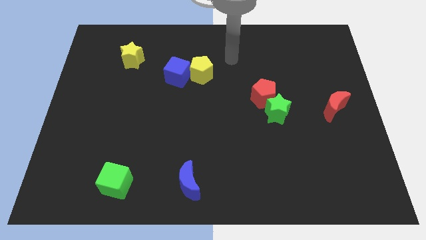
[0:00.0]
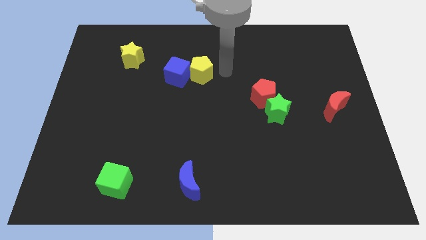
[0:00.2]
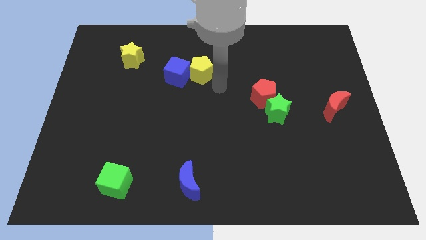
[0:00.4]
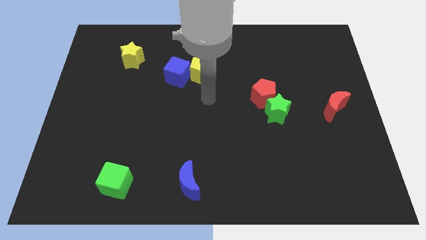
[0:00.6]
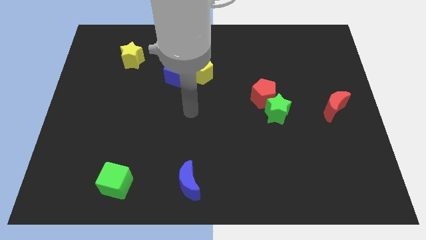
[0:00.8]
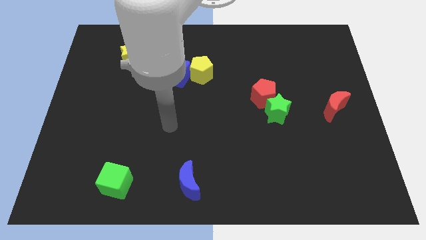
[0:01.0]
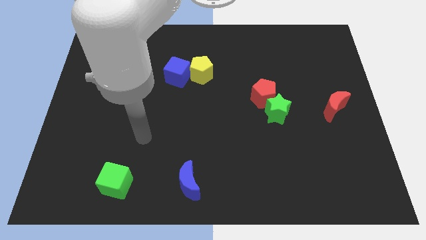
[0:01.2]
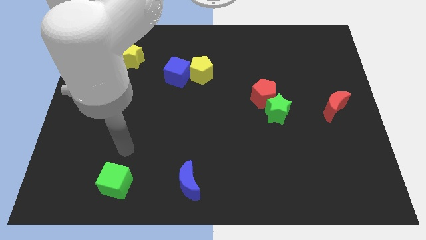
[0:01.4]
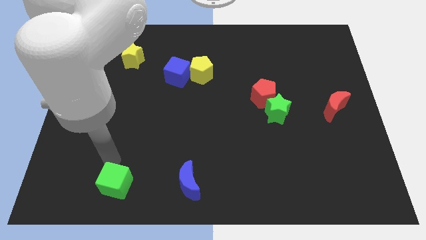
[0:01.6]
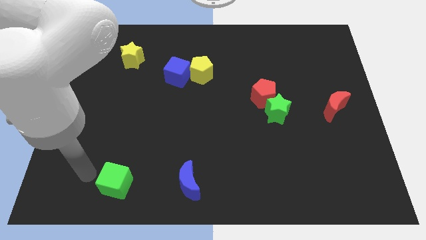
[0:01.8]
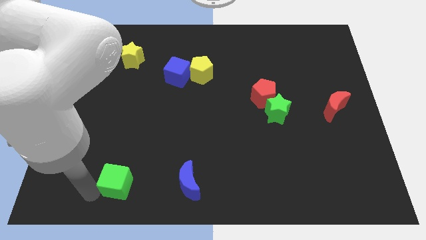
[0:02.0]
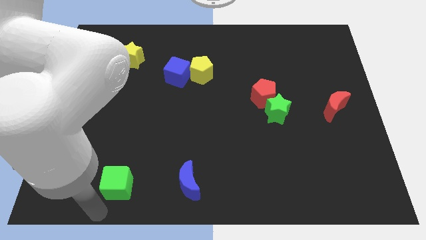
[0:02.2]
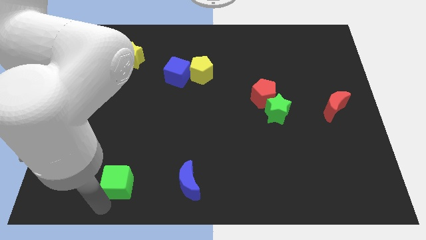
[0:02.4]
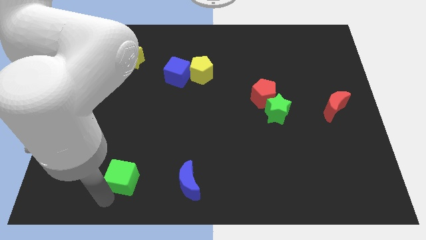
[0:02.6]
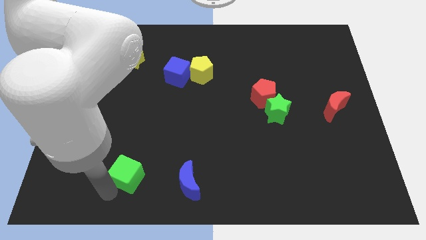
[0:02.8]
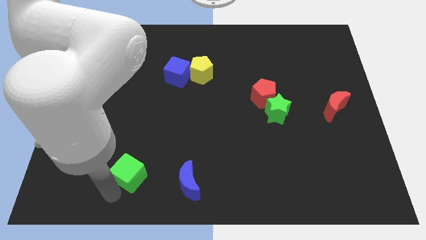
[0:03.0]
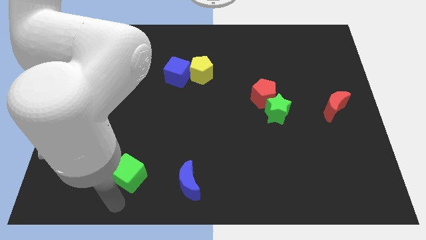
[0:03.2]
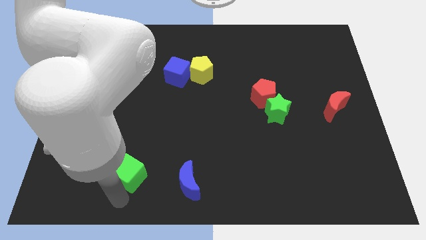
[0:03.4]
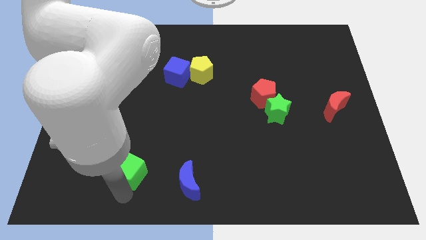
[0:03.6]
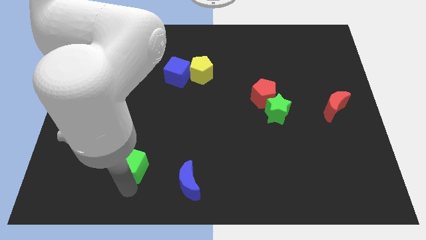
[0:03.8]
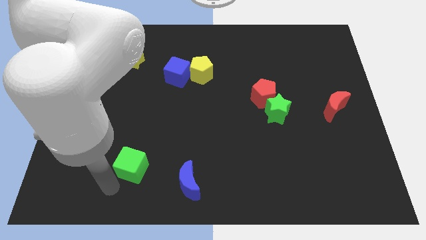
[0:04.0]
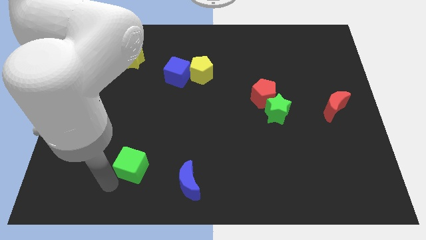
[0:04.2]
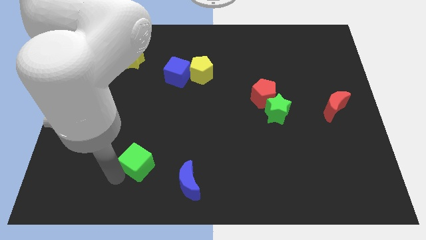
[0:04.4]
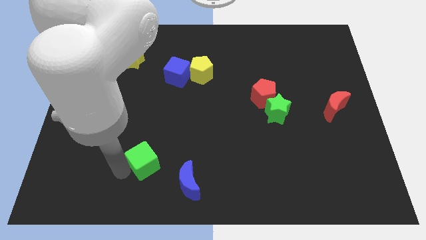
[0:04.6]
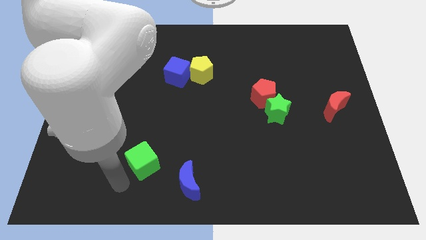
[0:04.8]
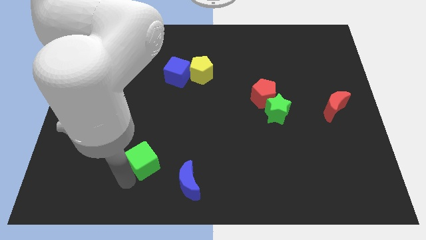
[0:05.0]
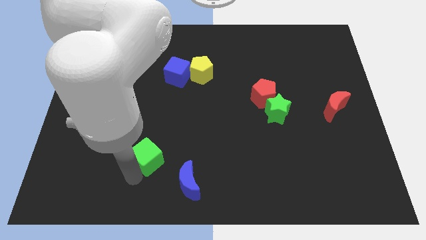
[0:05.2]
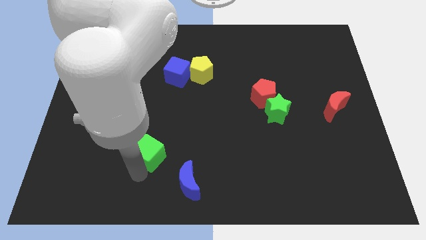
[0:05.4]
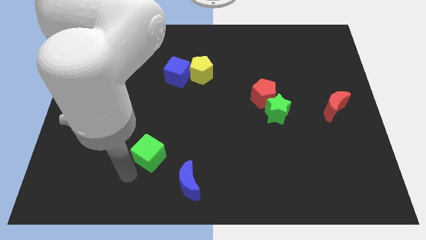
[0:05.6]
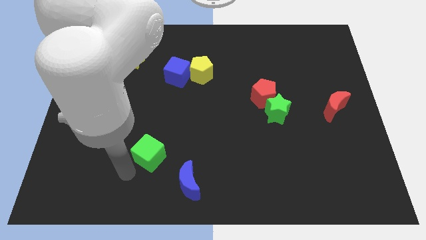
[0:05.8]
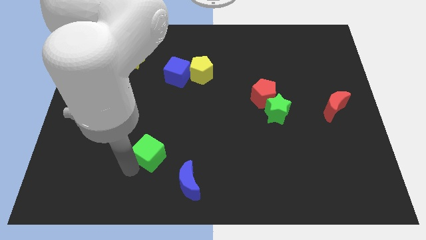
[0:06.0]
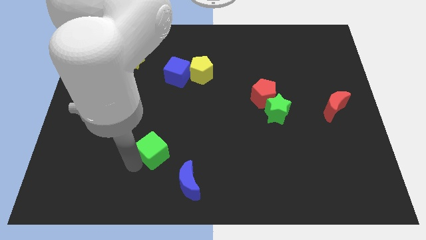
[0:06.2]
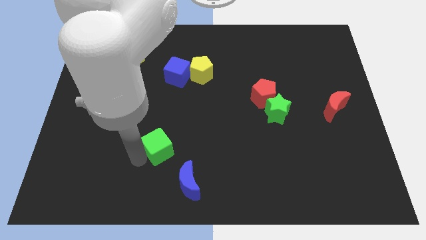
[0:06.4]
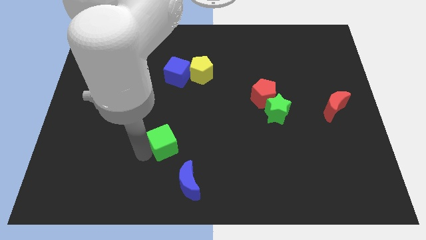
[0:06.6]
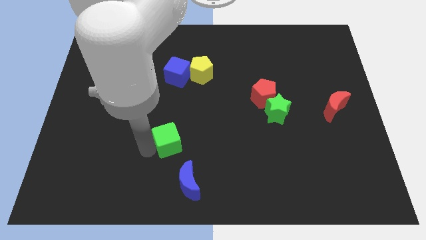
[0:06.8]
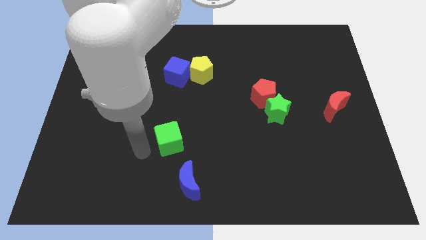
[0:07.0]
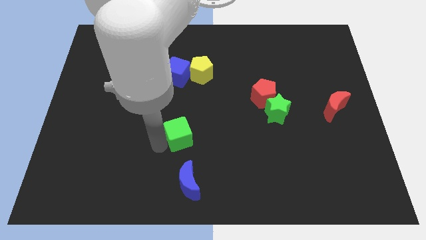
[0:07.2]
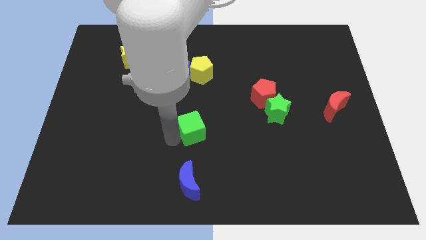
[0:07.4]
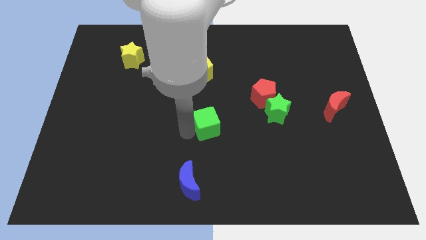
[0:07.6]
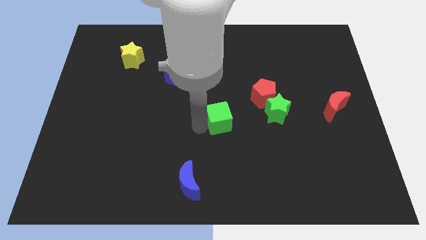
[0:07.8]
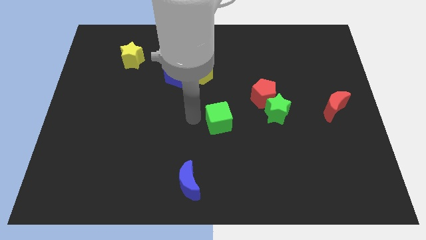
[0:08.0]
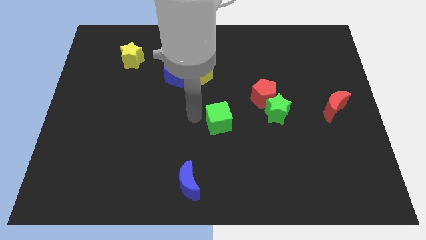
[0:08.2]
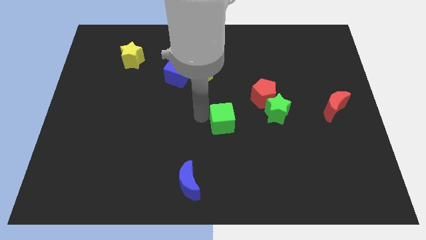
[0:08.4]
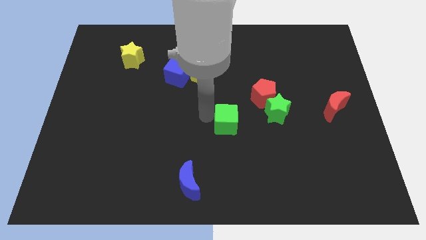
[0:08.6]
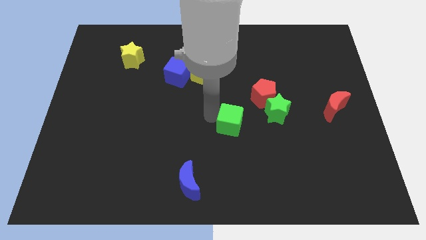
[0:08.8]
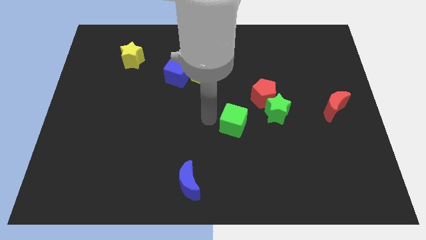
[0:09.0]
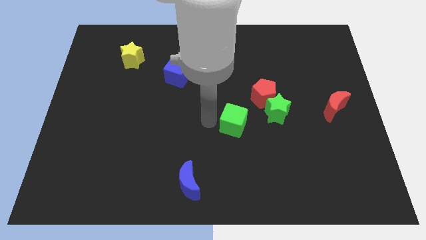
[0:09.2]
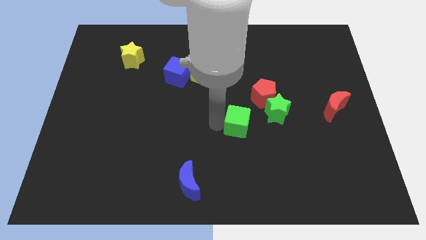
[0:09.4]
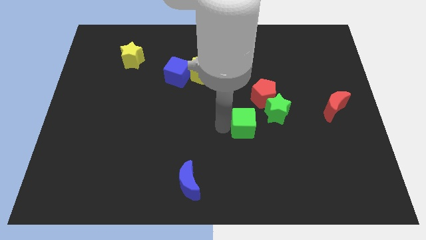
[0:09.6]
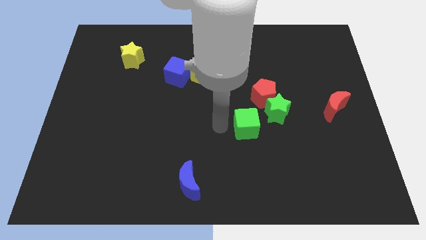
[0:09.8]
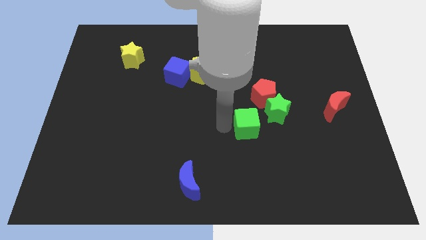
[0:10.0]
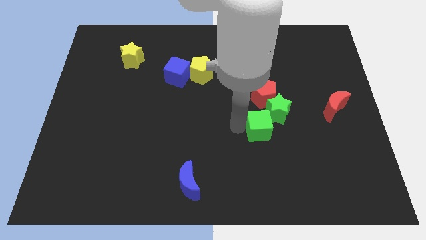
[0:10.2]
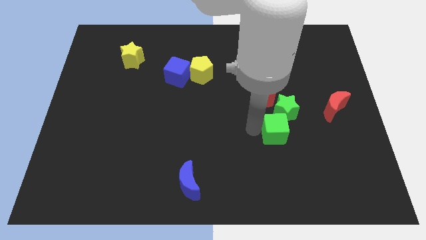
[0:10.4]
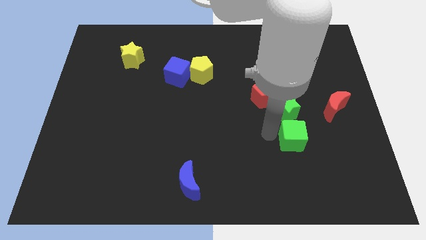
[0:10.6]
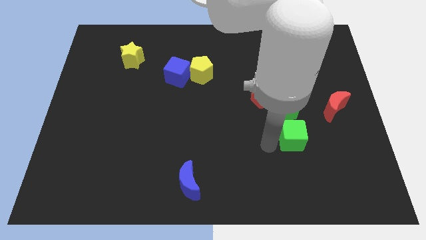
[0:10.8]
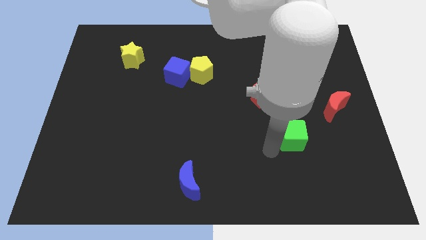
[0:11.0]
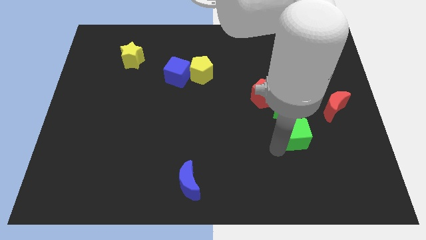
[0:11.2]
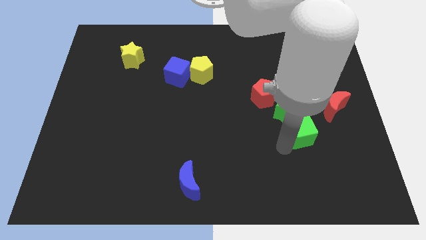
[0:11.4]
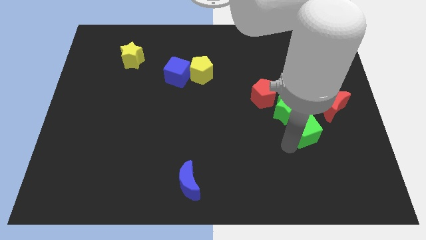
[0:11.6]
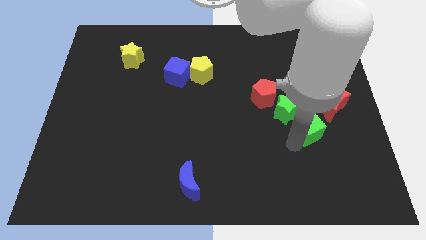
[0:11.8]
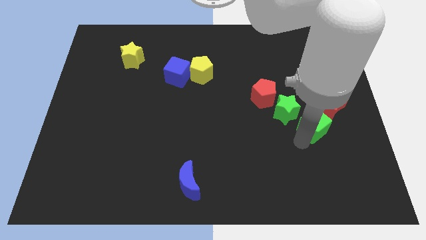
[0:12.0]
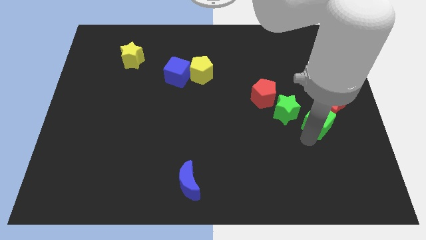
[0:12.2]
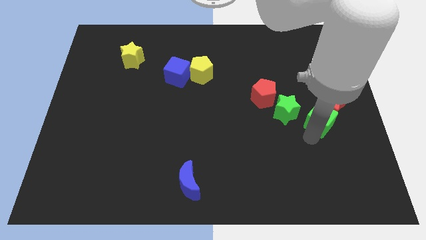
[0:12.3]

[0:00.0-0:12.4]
move the green cube towards the red moon

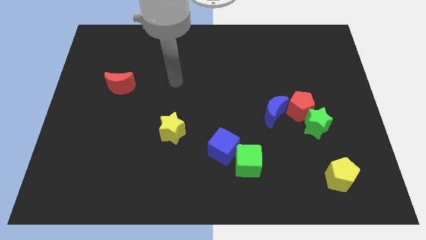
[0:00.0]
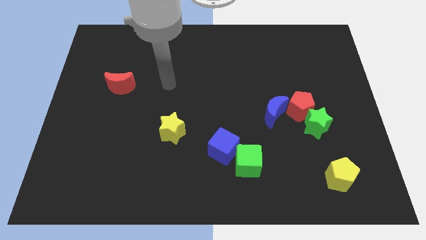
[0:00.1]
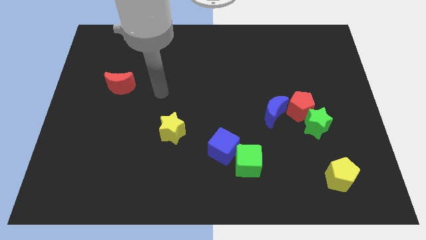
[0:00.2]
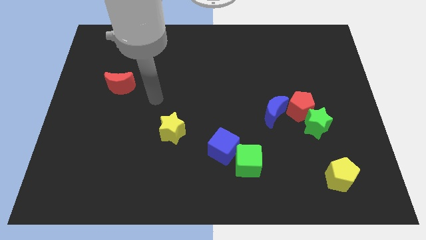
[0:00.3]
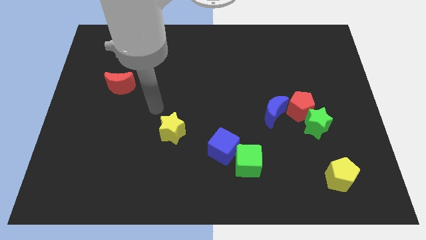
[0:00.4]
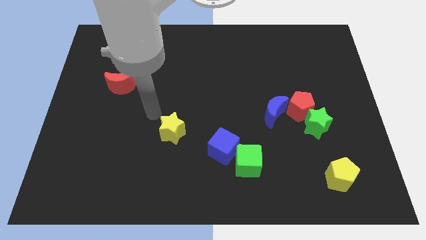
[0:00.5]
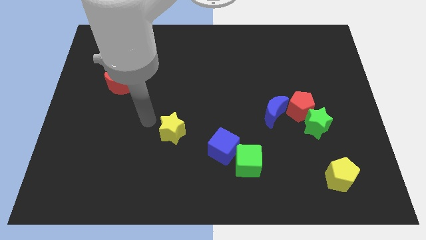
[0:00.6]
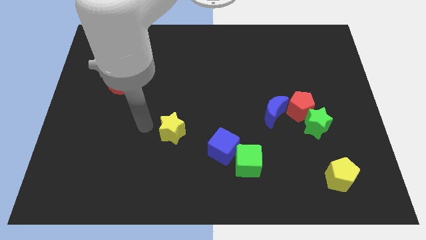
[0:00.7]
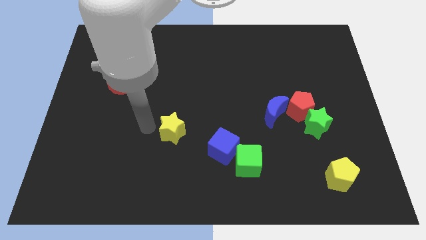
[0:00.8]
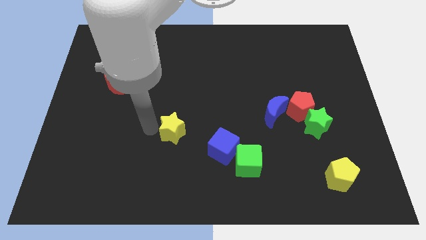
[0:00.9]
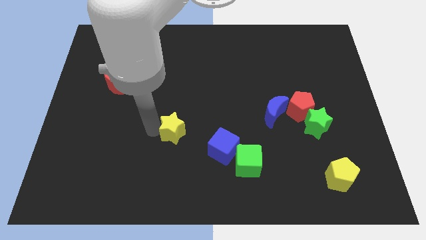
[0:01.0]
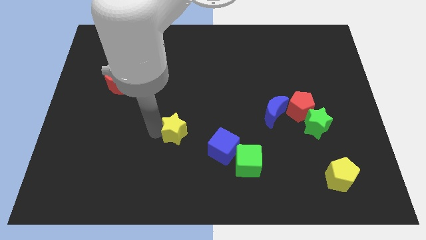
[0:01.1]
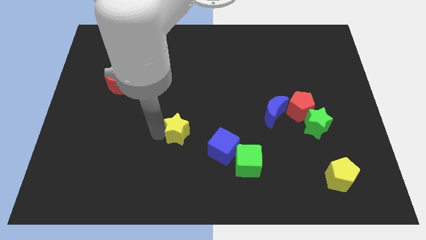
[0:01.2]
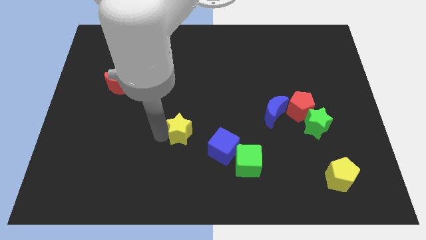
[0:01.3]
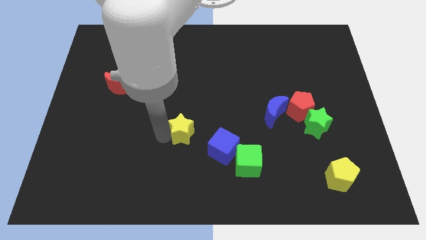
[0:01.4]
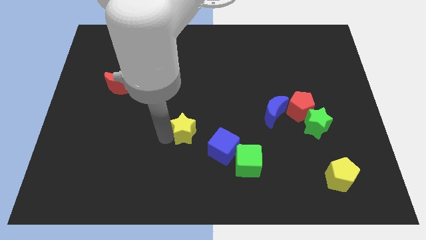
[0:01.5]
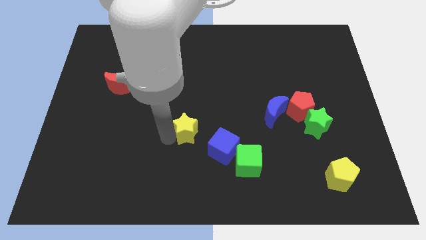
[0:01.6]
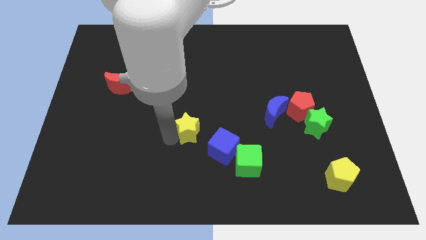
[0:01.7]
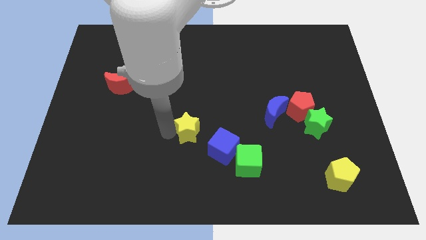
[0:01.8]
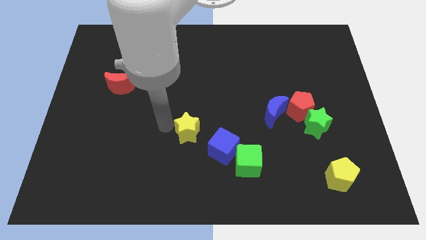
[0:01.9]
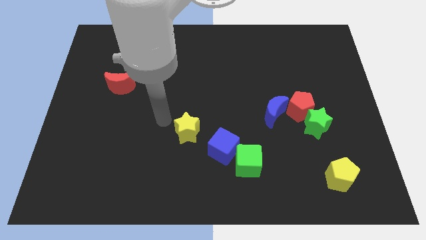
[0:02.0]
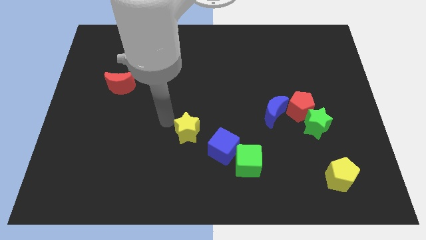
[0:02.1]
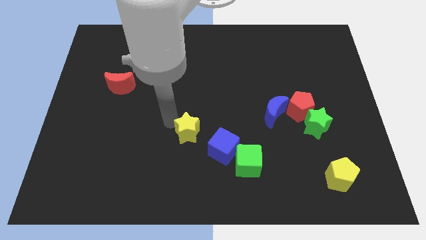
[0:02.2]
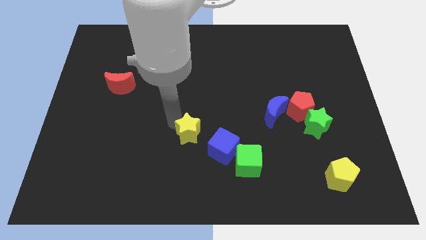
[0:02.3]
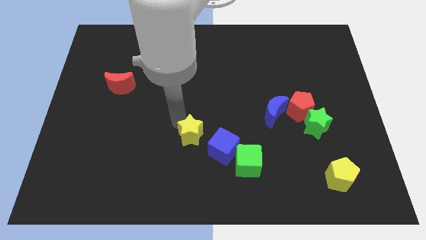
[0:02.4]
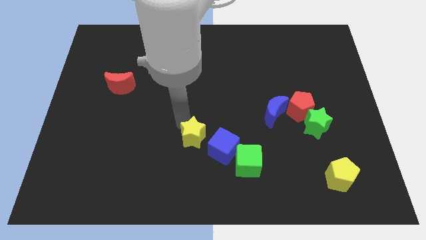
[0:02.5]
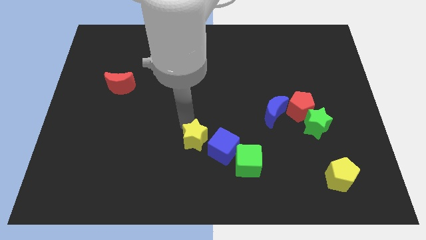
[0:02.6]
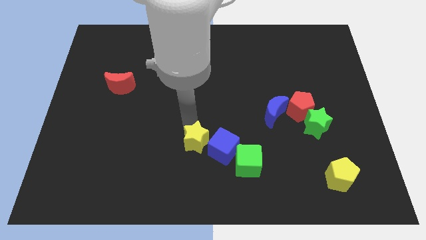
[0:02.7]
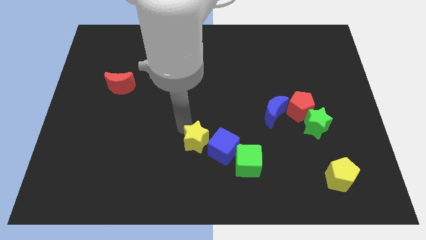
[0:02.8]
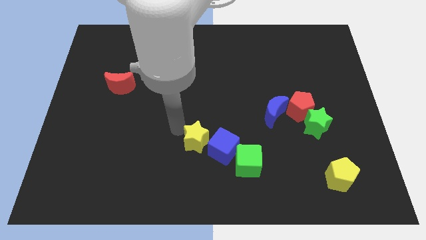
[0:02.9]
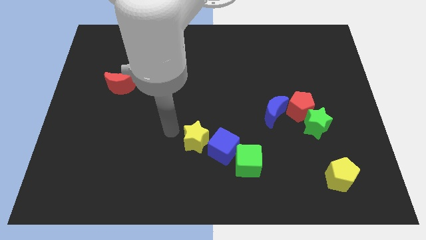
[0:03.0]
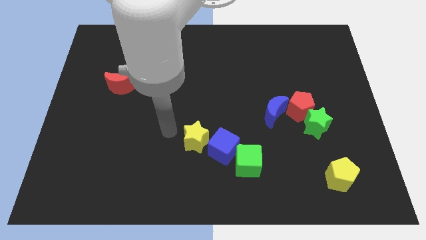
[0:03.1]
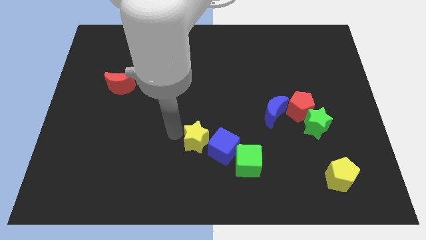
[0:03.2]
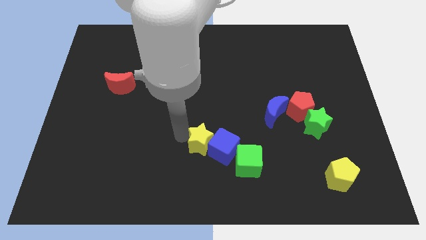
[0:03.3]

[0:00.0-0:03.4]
slide the yellow star close to the blue cube
